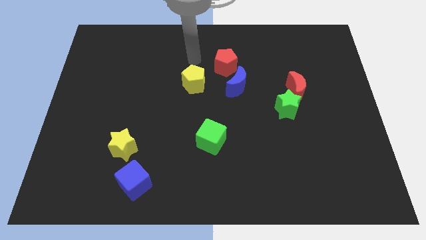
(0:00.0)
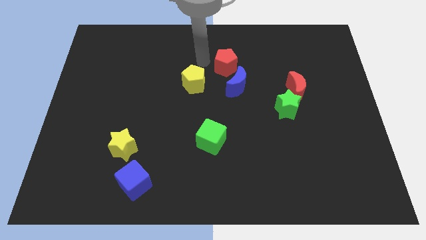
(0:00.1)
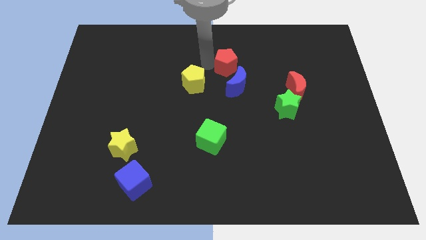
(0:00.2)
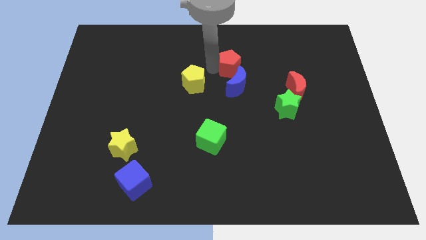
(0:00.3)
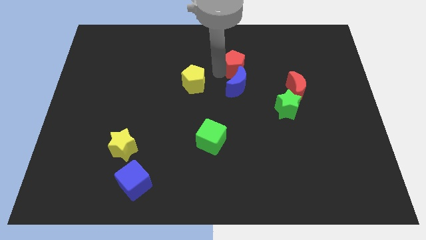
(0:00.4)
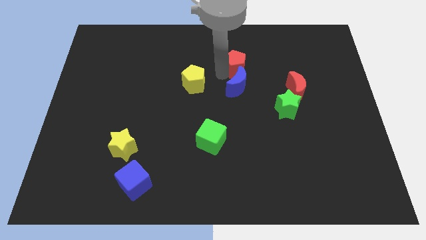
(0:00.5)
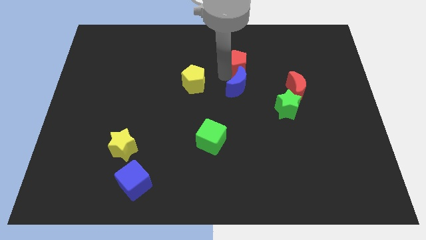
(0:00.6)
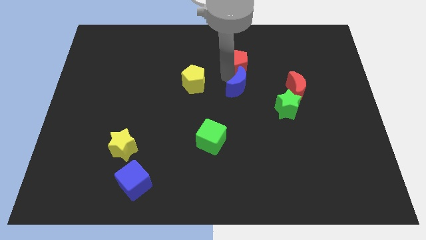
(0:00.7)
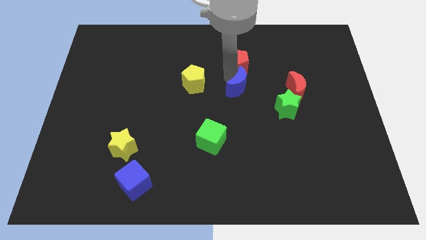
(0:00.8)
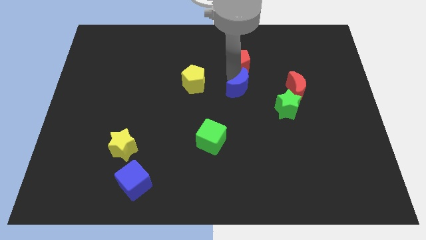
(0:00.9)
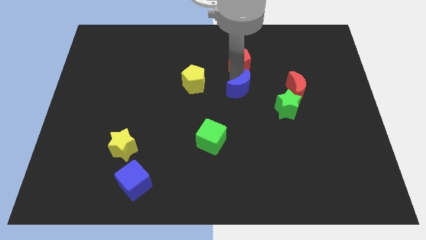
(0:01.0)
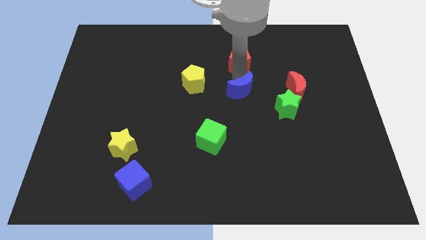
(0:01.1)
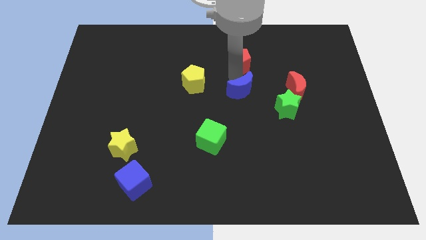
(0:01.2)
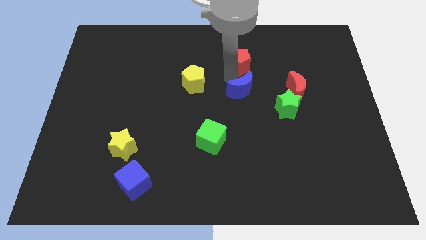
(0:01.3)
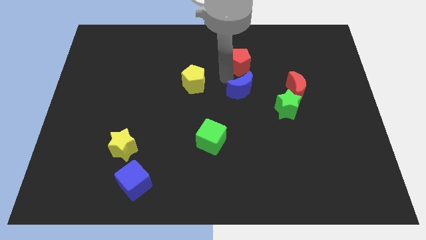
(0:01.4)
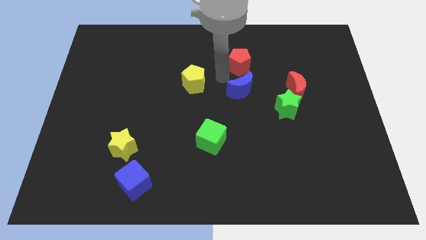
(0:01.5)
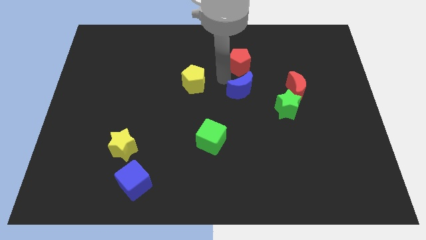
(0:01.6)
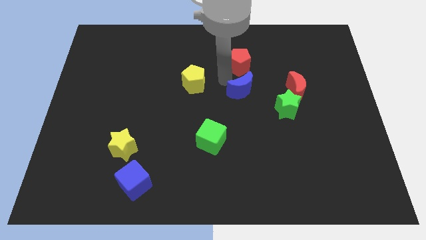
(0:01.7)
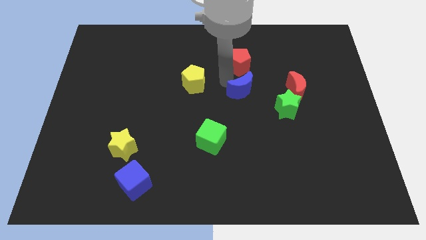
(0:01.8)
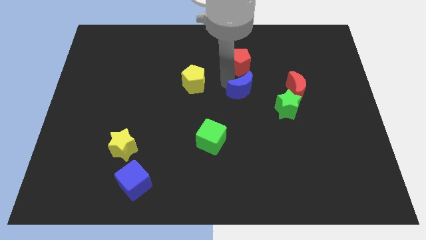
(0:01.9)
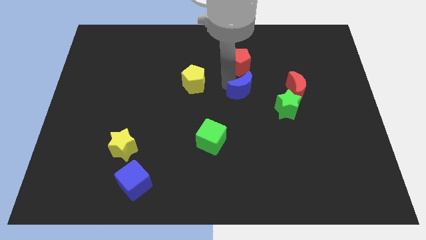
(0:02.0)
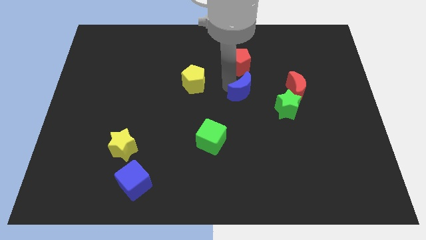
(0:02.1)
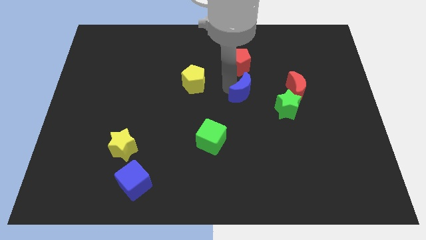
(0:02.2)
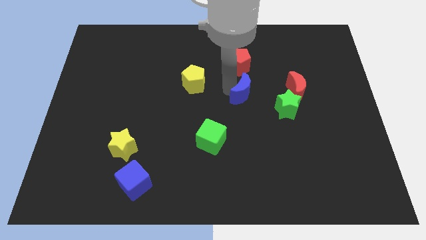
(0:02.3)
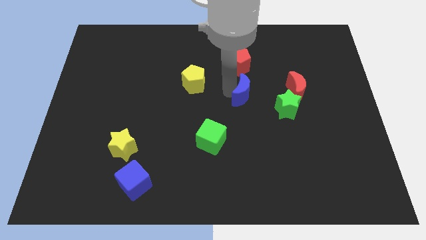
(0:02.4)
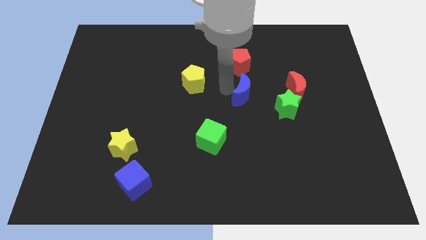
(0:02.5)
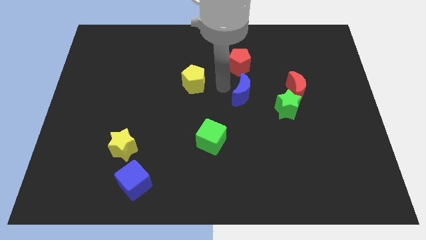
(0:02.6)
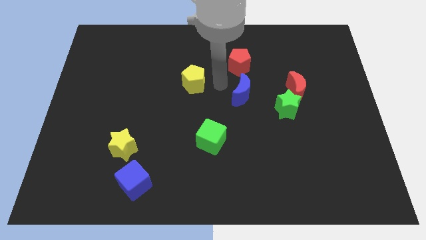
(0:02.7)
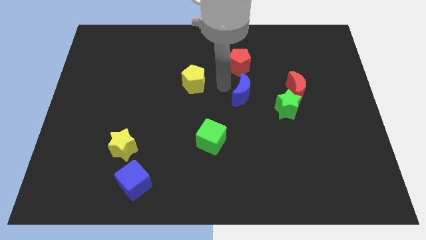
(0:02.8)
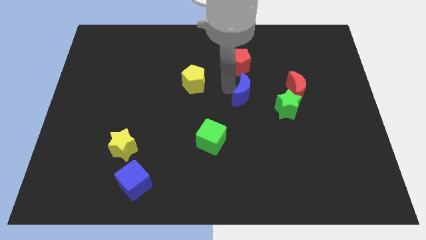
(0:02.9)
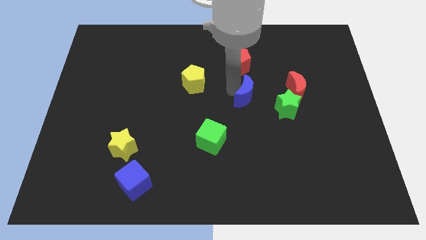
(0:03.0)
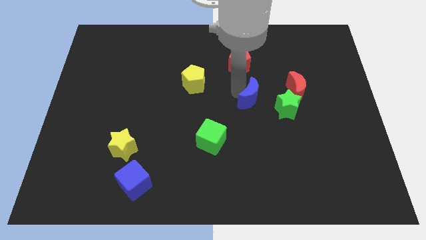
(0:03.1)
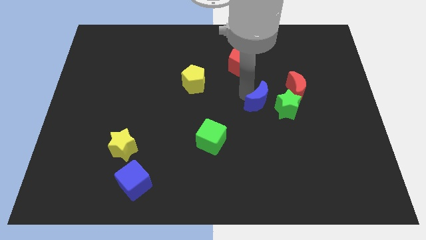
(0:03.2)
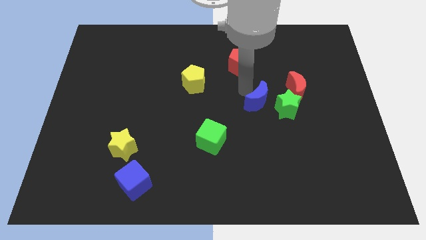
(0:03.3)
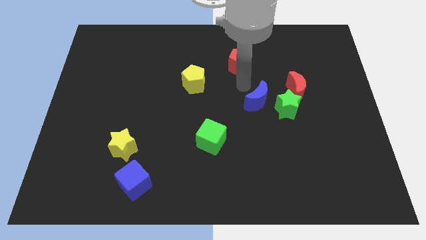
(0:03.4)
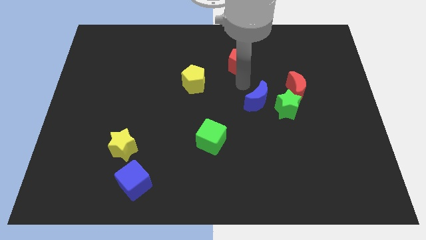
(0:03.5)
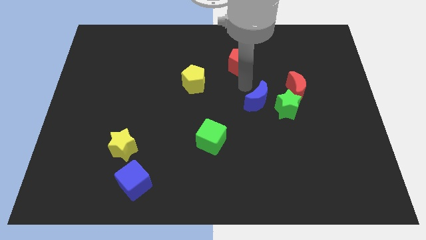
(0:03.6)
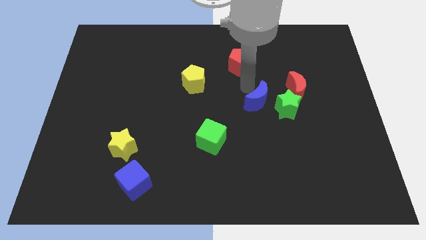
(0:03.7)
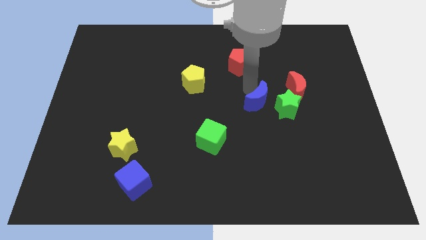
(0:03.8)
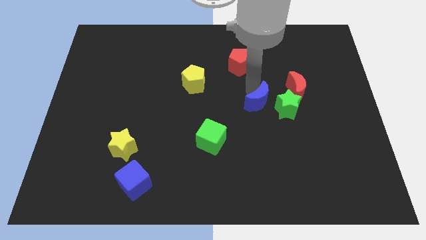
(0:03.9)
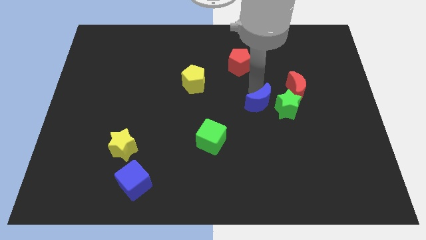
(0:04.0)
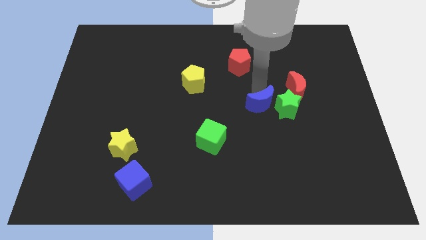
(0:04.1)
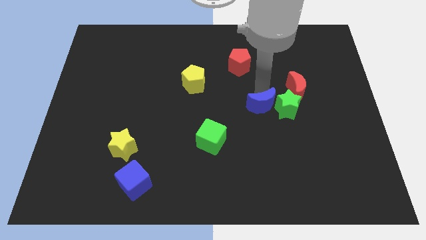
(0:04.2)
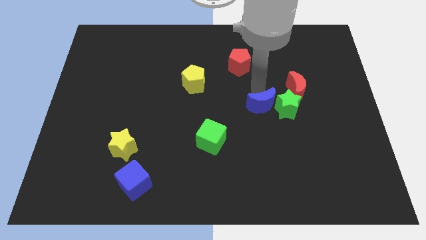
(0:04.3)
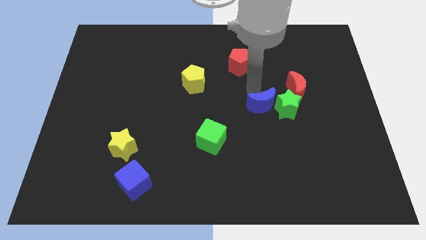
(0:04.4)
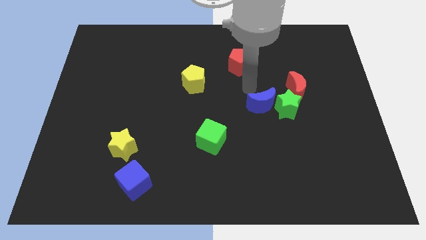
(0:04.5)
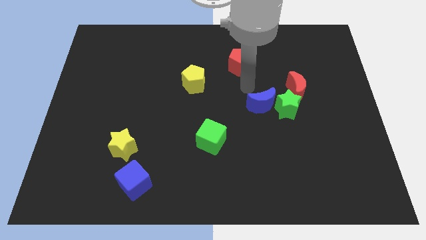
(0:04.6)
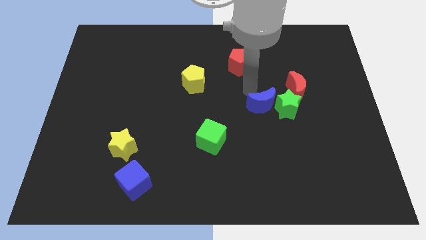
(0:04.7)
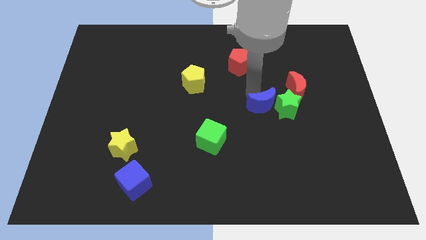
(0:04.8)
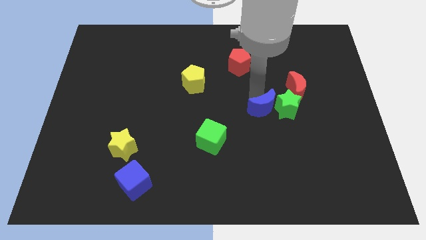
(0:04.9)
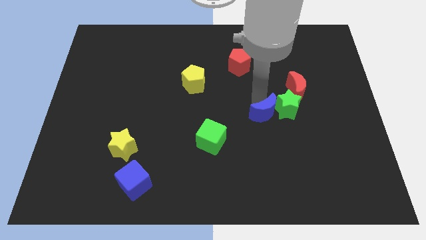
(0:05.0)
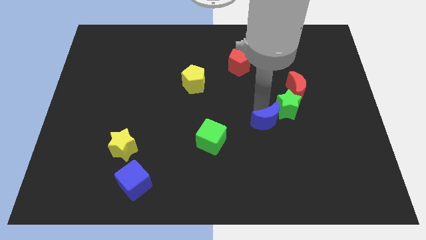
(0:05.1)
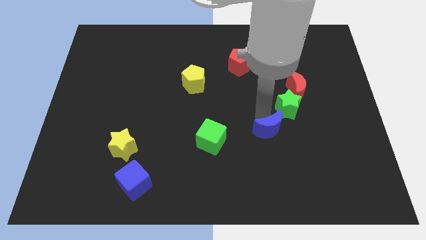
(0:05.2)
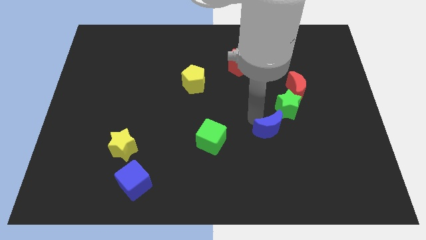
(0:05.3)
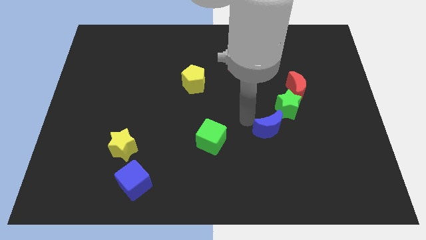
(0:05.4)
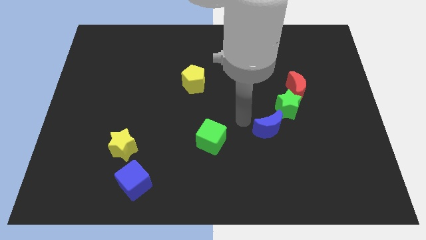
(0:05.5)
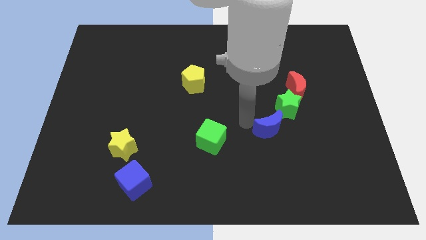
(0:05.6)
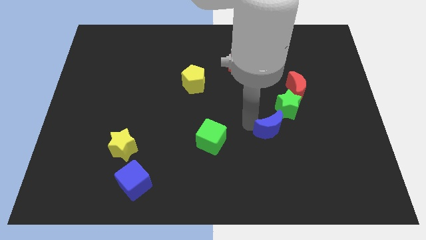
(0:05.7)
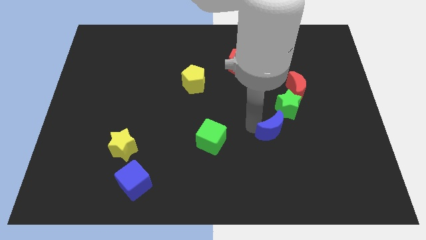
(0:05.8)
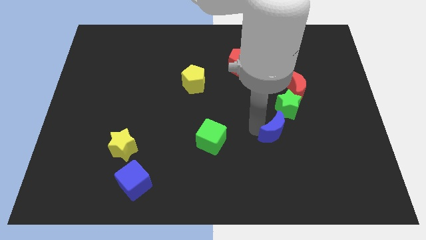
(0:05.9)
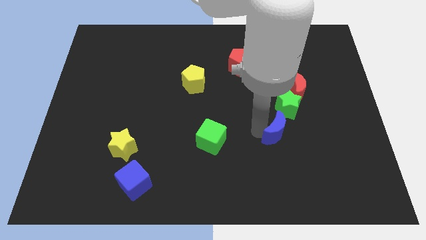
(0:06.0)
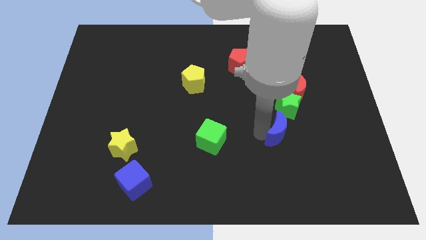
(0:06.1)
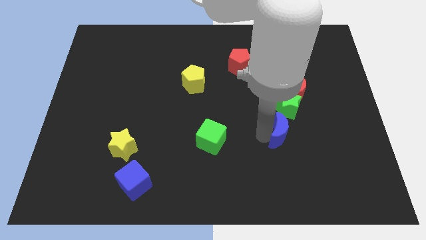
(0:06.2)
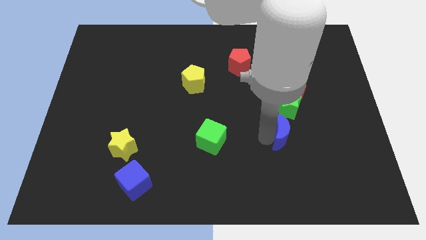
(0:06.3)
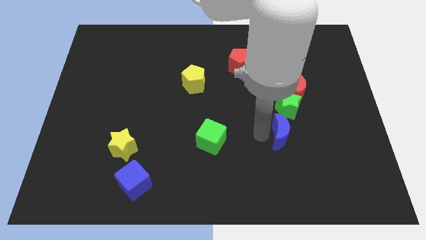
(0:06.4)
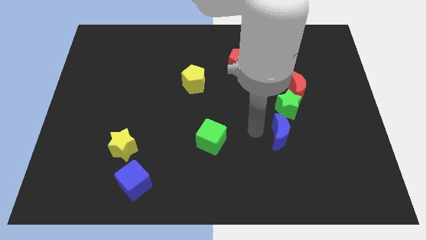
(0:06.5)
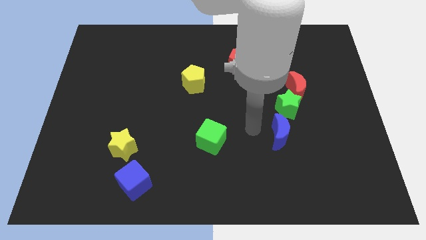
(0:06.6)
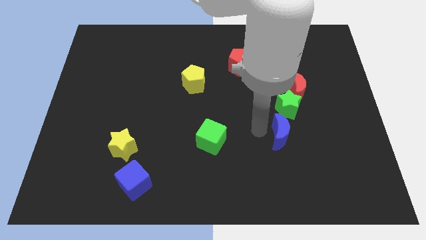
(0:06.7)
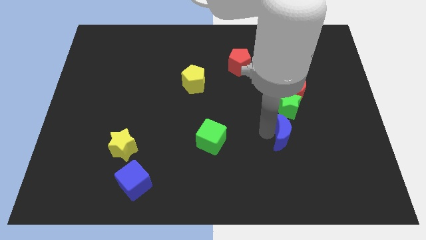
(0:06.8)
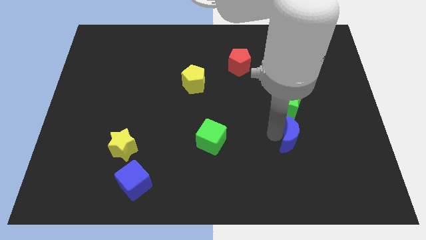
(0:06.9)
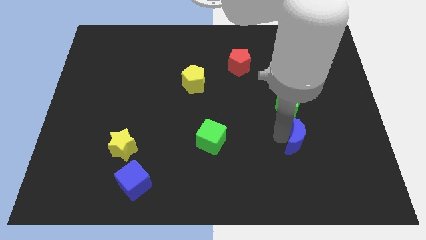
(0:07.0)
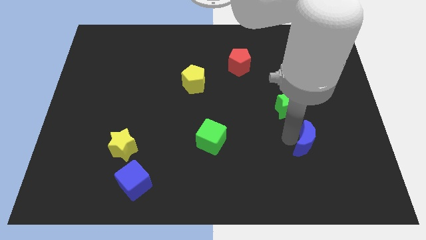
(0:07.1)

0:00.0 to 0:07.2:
slide the blue moon down and then to the right

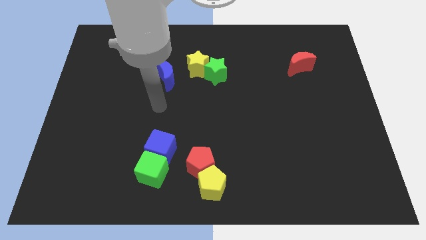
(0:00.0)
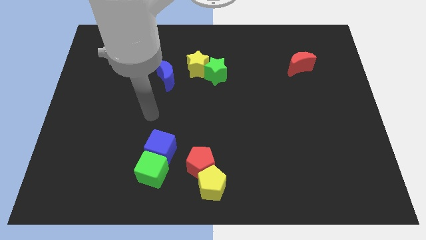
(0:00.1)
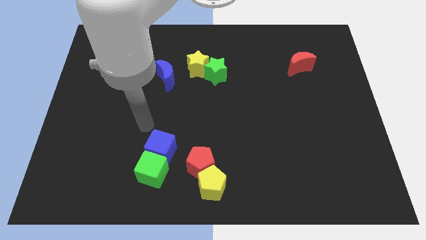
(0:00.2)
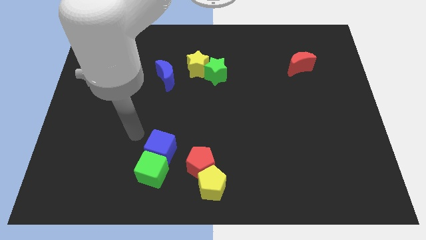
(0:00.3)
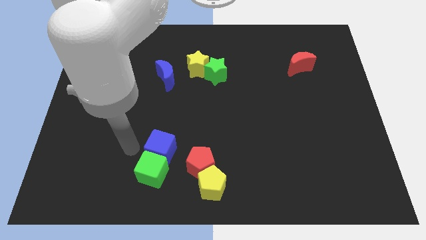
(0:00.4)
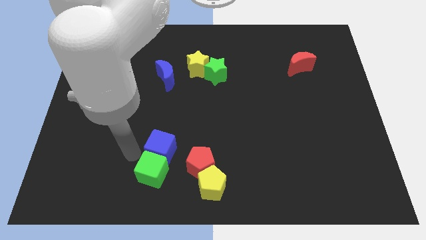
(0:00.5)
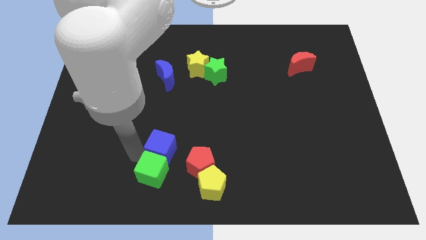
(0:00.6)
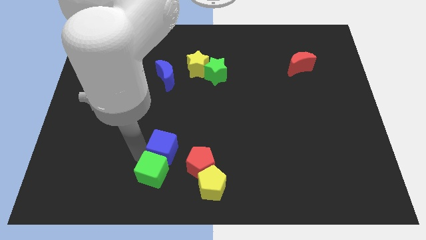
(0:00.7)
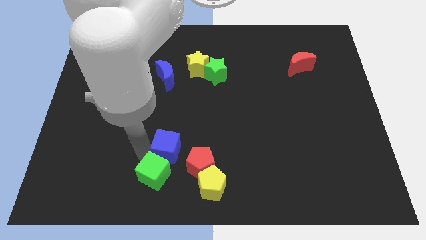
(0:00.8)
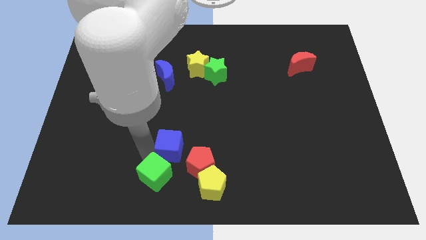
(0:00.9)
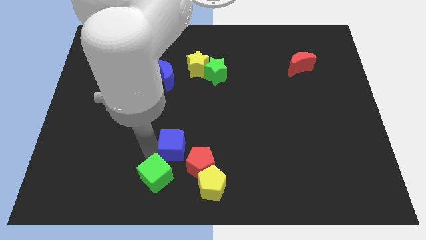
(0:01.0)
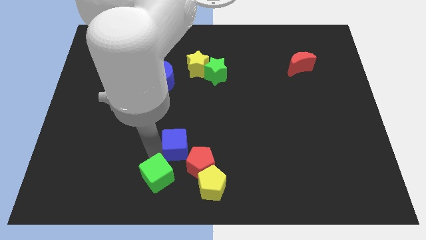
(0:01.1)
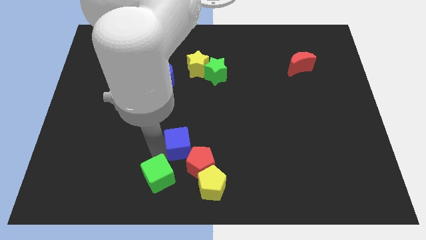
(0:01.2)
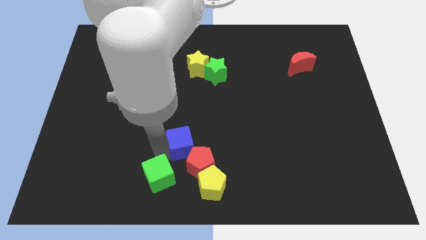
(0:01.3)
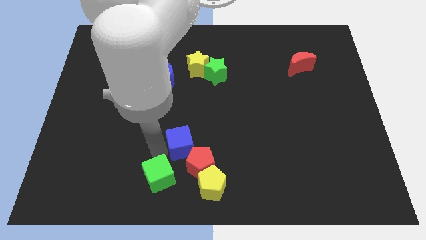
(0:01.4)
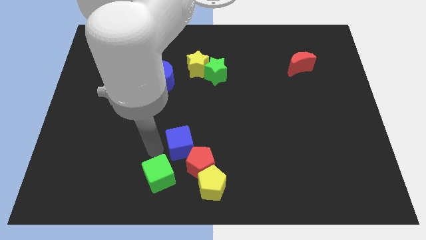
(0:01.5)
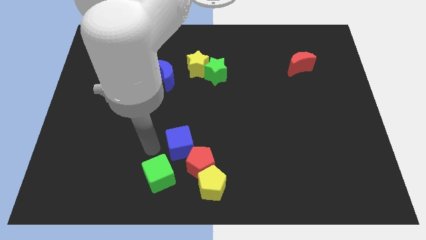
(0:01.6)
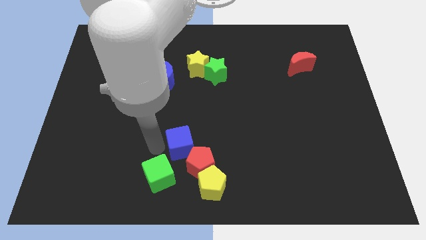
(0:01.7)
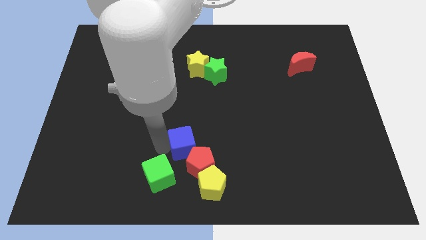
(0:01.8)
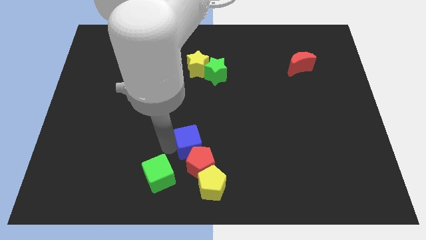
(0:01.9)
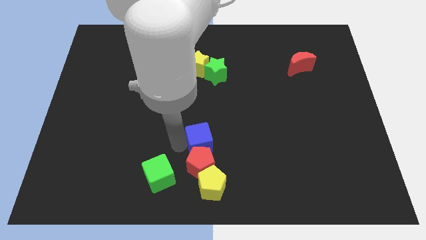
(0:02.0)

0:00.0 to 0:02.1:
slightly move the blue cube to the right
